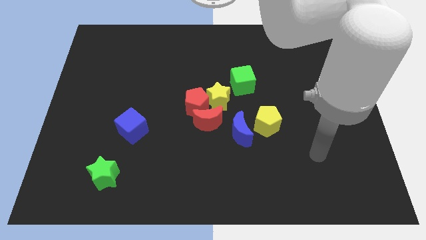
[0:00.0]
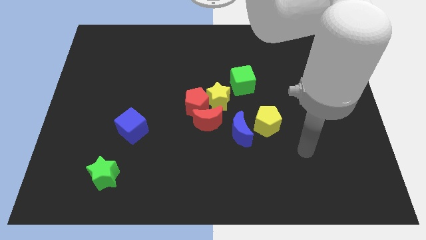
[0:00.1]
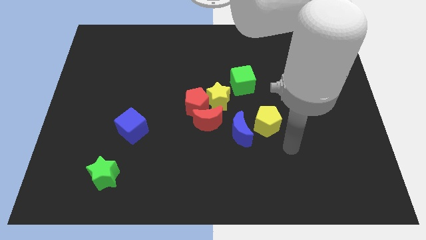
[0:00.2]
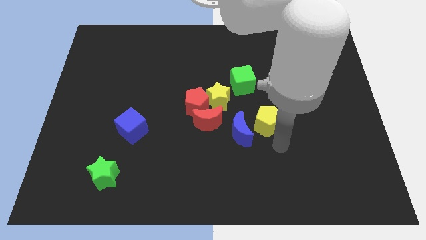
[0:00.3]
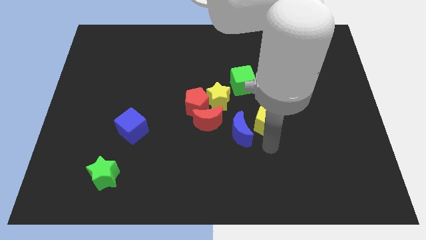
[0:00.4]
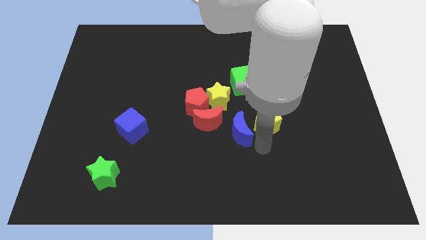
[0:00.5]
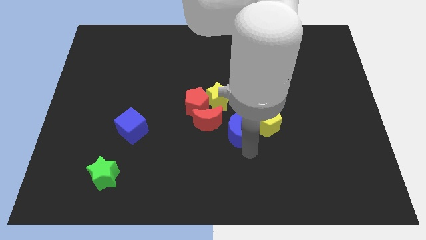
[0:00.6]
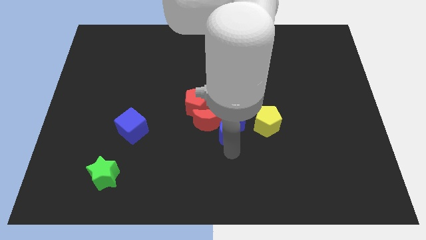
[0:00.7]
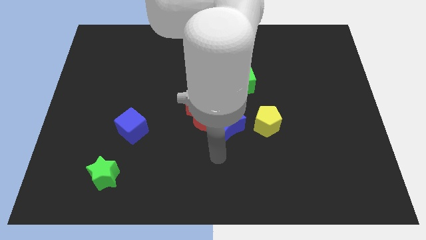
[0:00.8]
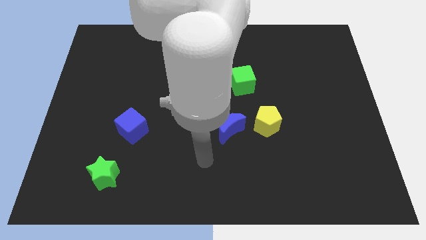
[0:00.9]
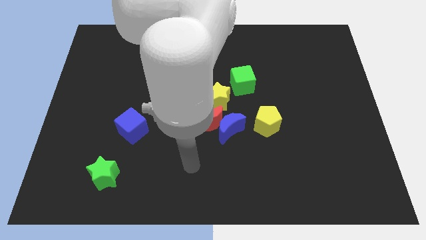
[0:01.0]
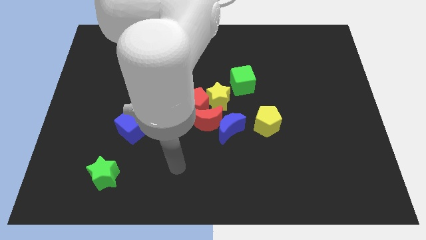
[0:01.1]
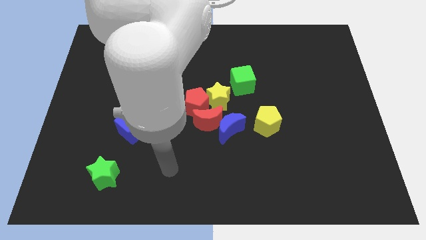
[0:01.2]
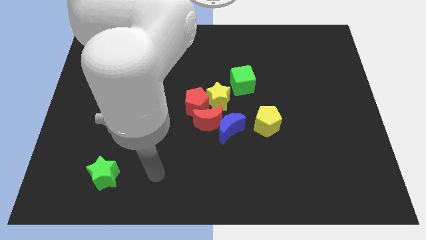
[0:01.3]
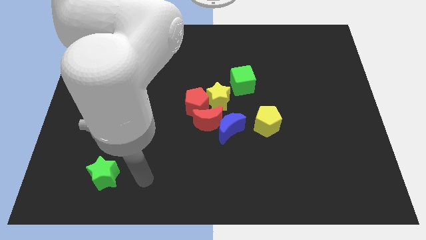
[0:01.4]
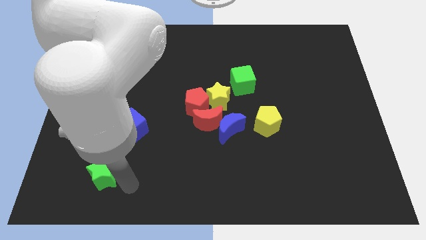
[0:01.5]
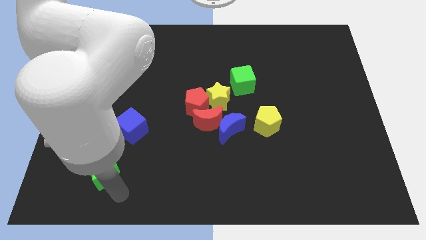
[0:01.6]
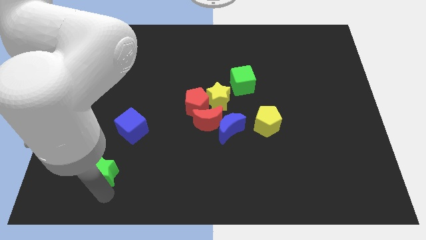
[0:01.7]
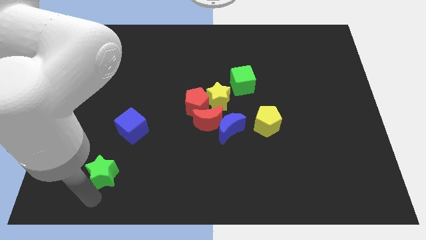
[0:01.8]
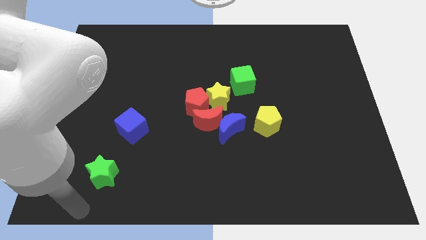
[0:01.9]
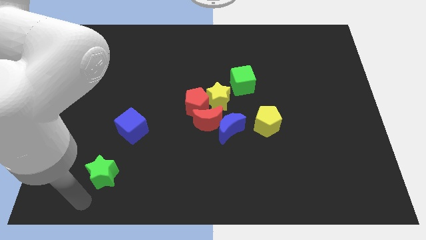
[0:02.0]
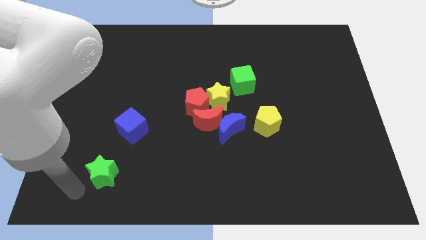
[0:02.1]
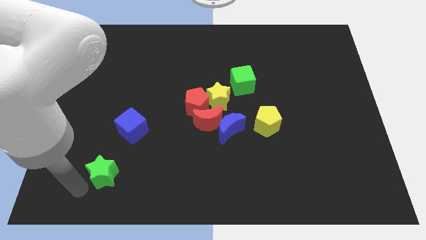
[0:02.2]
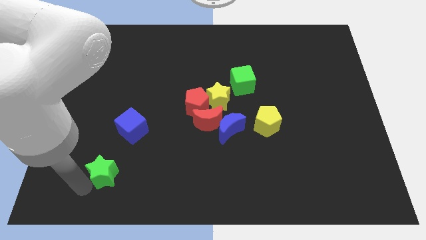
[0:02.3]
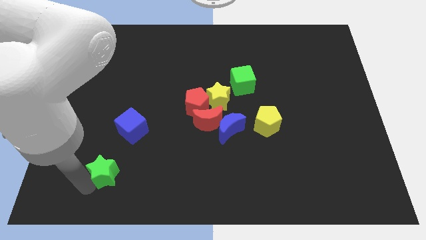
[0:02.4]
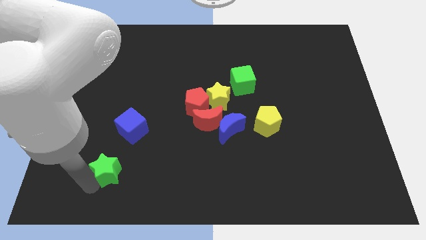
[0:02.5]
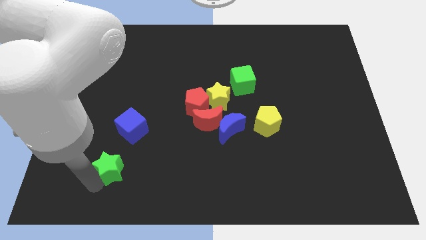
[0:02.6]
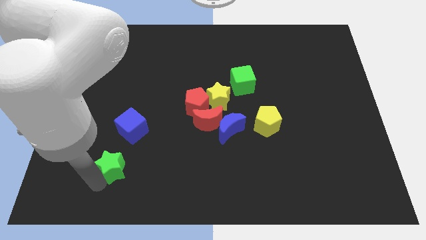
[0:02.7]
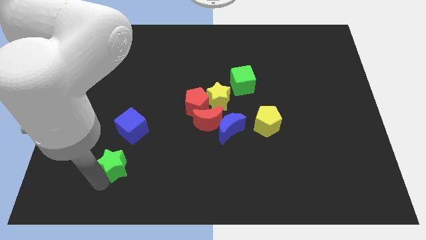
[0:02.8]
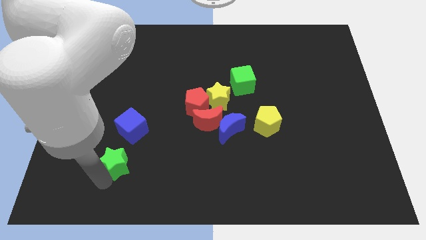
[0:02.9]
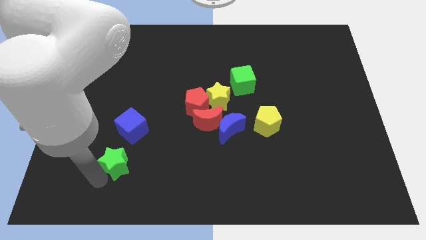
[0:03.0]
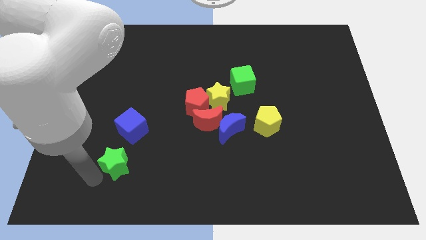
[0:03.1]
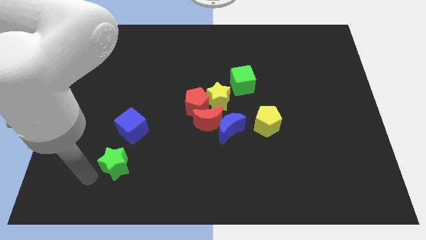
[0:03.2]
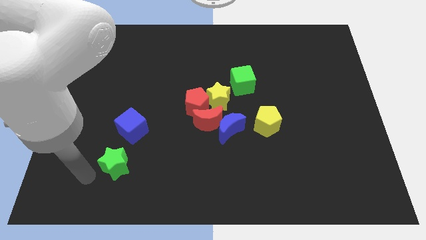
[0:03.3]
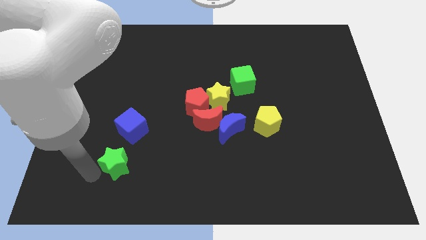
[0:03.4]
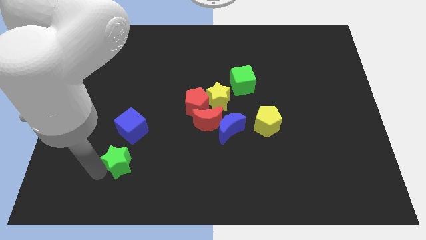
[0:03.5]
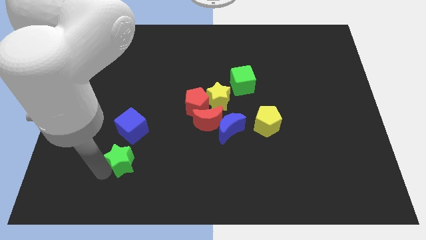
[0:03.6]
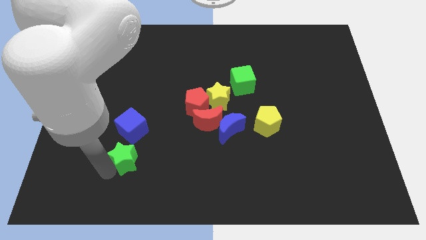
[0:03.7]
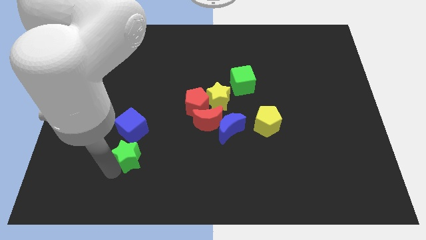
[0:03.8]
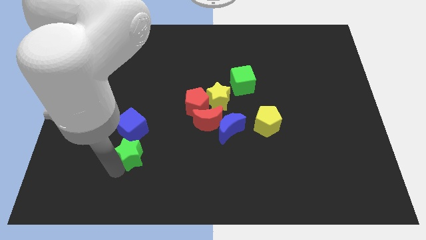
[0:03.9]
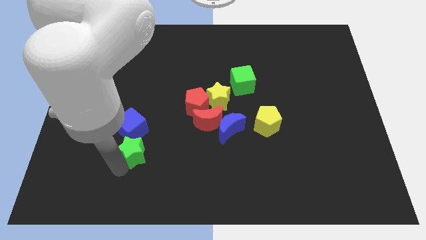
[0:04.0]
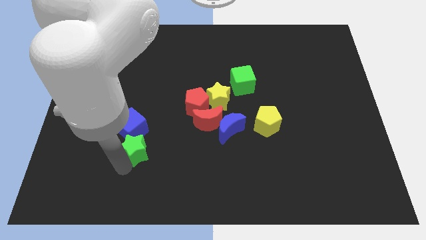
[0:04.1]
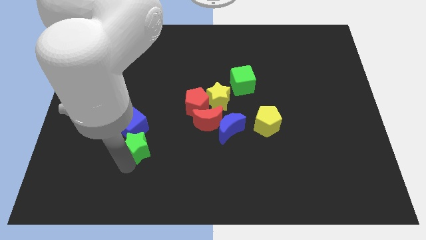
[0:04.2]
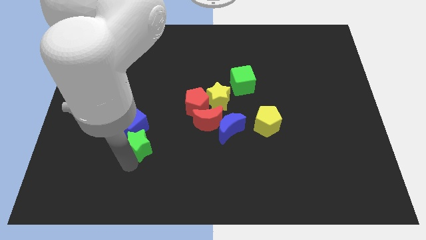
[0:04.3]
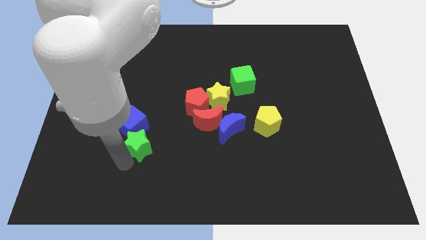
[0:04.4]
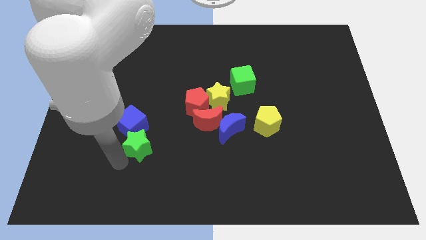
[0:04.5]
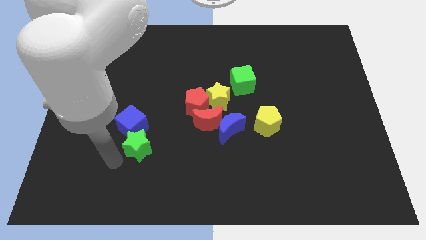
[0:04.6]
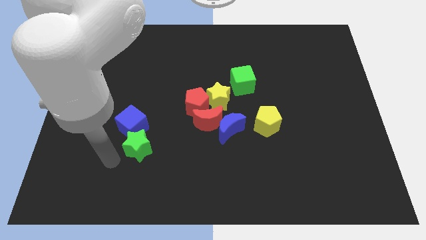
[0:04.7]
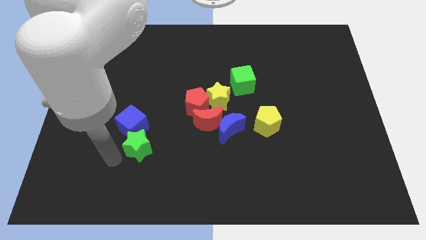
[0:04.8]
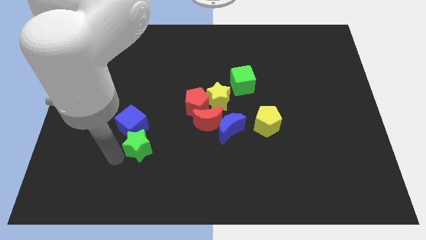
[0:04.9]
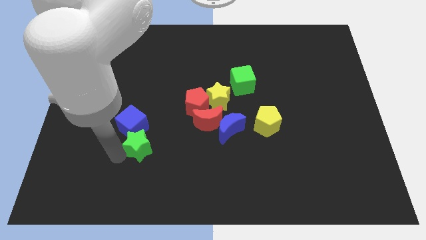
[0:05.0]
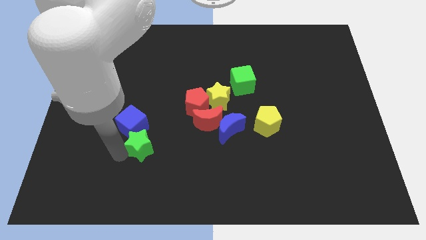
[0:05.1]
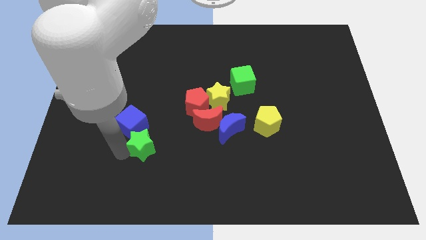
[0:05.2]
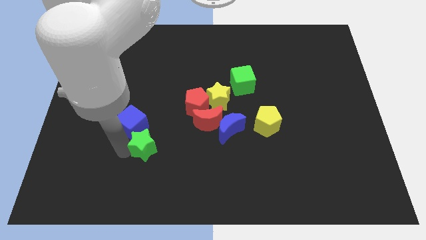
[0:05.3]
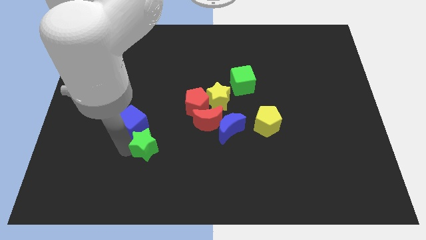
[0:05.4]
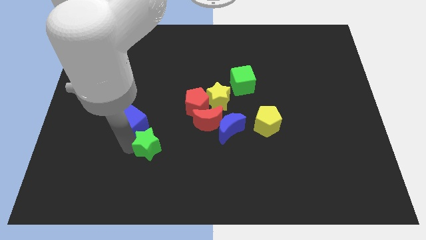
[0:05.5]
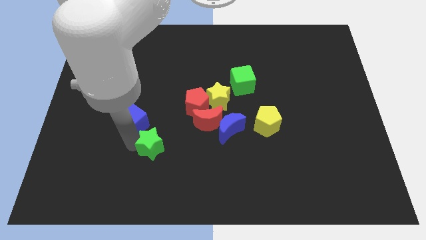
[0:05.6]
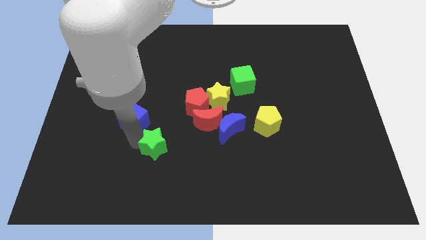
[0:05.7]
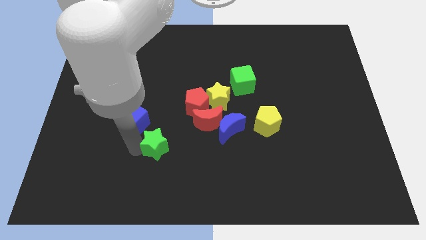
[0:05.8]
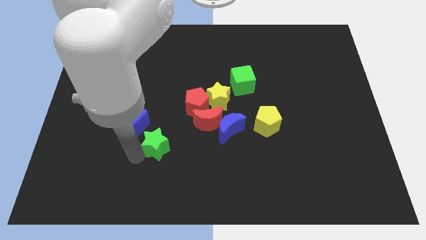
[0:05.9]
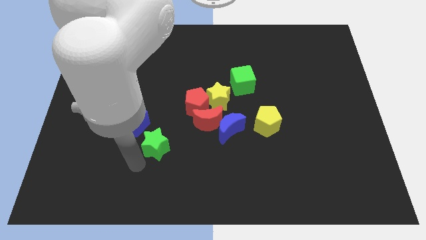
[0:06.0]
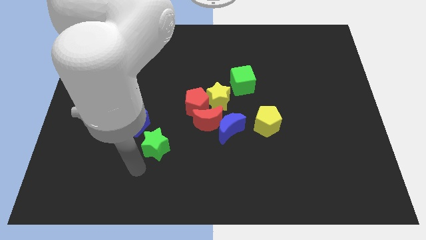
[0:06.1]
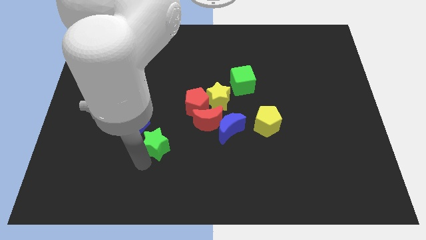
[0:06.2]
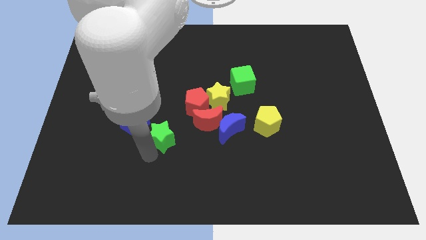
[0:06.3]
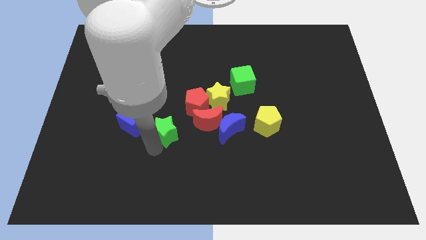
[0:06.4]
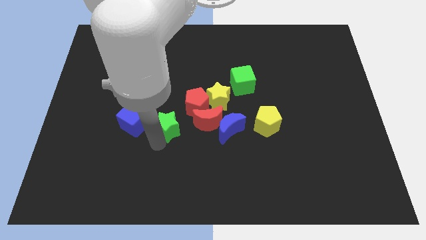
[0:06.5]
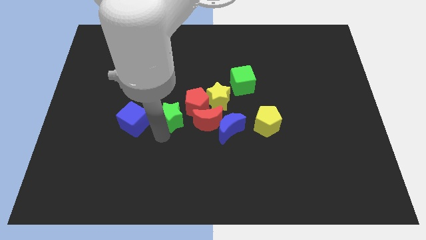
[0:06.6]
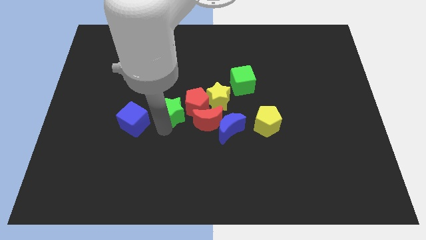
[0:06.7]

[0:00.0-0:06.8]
move the green star close to the red pentagon
